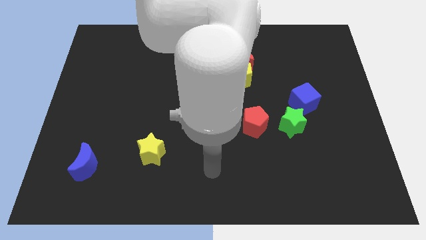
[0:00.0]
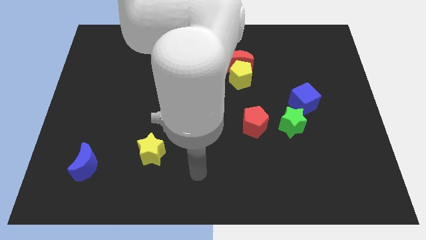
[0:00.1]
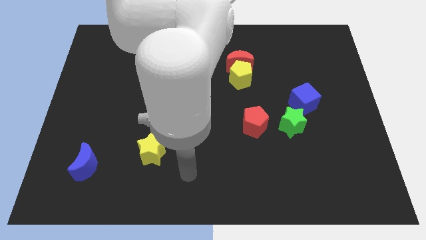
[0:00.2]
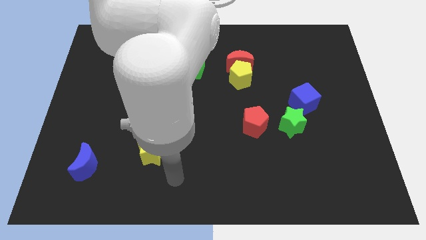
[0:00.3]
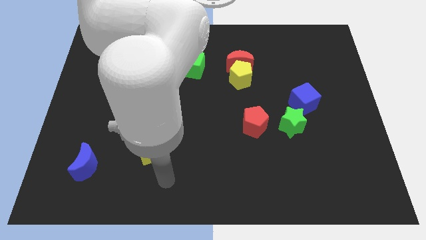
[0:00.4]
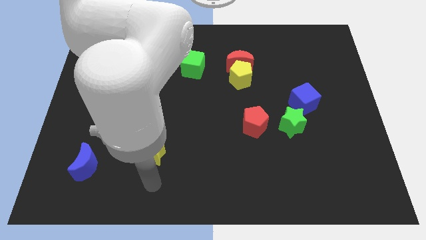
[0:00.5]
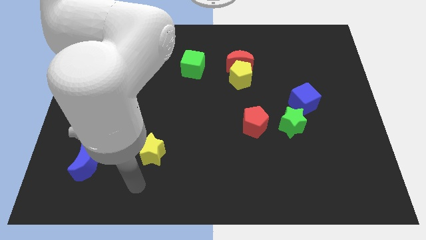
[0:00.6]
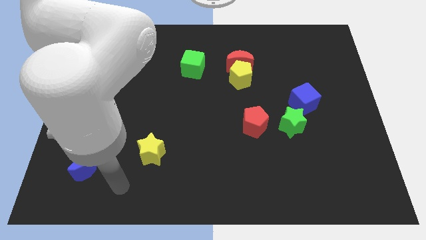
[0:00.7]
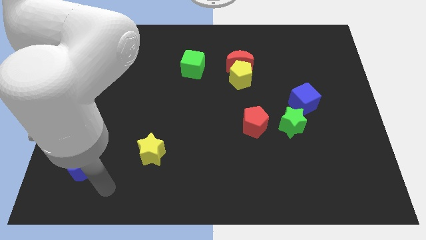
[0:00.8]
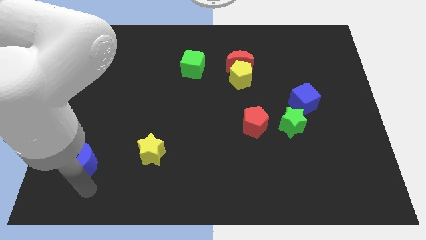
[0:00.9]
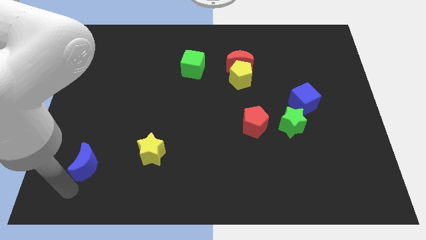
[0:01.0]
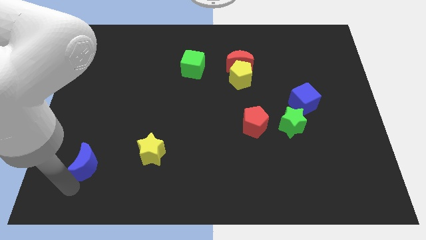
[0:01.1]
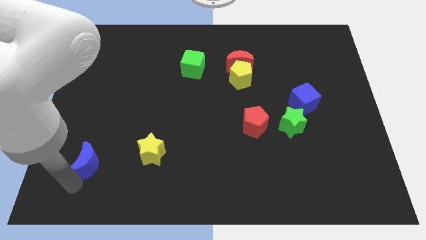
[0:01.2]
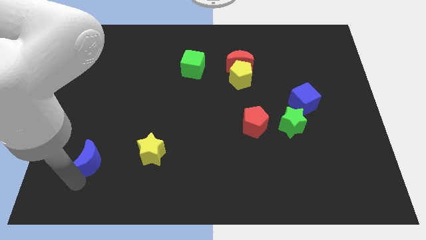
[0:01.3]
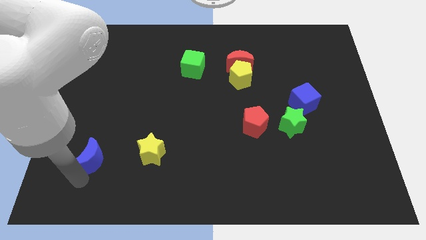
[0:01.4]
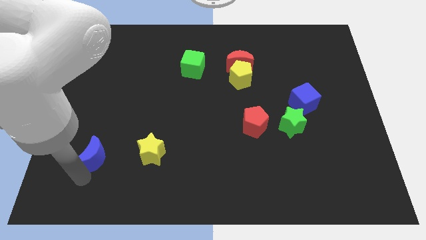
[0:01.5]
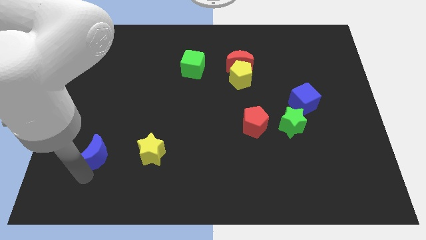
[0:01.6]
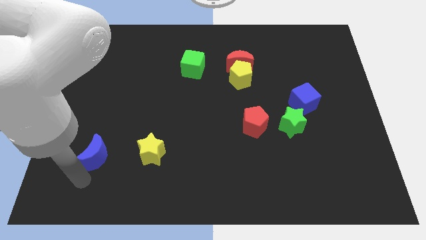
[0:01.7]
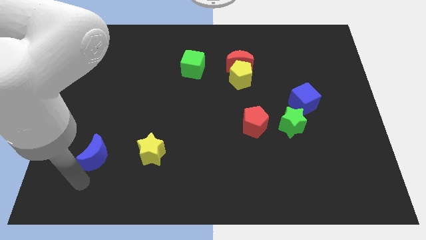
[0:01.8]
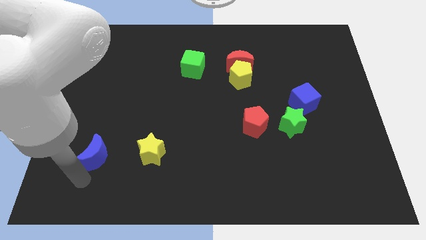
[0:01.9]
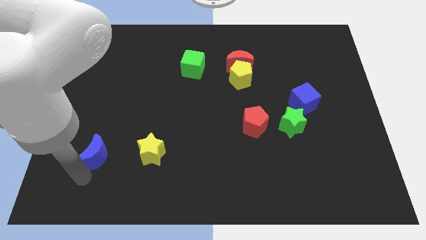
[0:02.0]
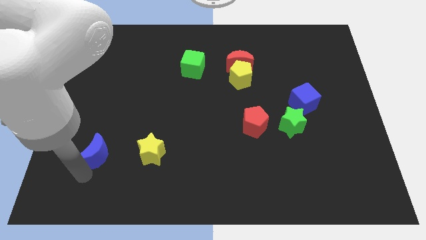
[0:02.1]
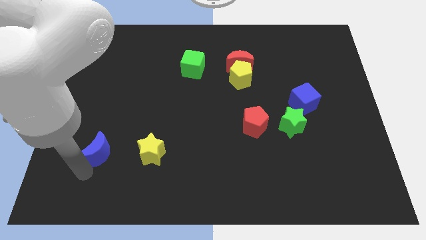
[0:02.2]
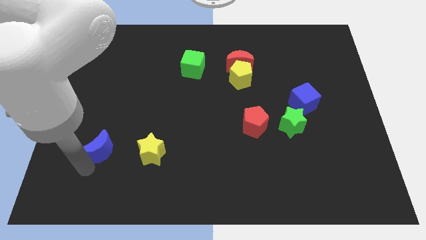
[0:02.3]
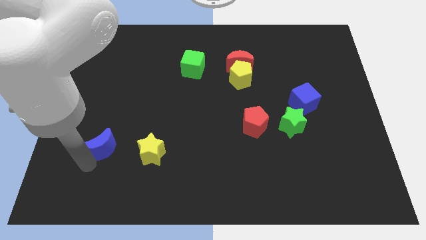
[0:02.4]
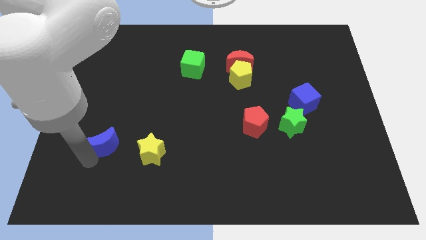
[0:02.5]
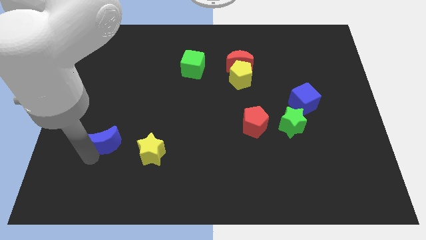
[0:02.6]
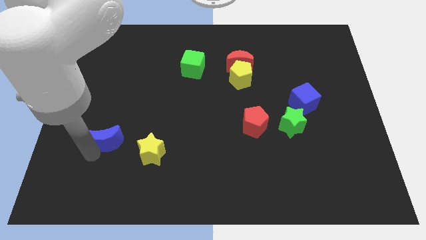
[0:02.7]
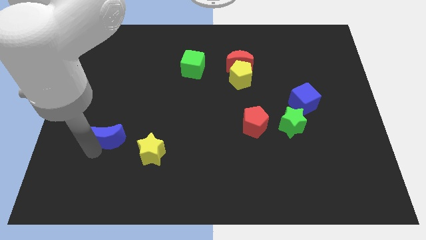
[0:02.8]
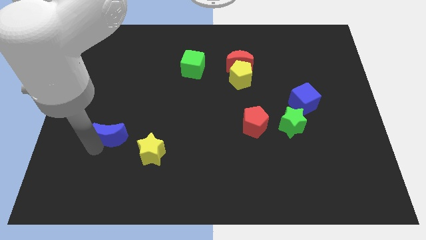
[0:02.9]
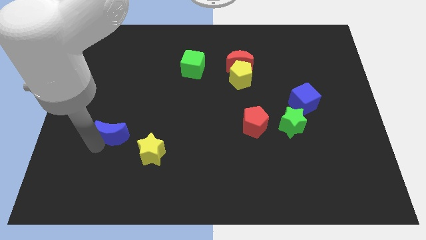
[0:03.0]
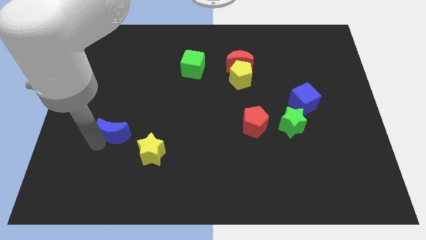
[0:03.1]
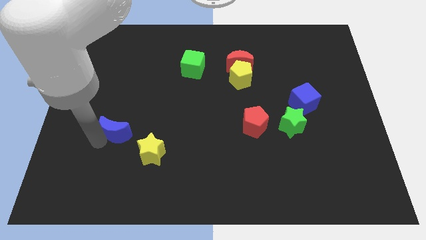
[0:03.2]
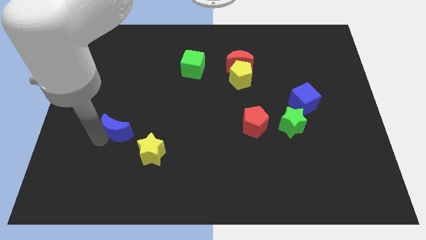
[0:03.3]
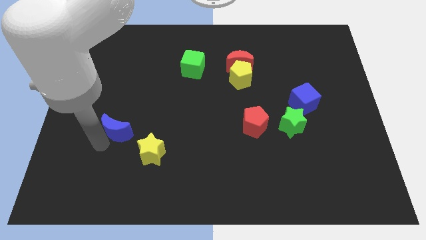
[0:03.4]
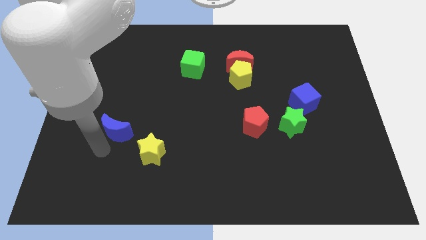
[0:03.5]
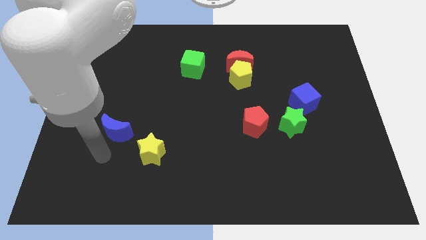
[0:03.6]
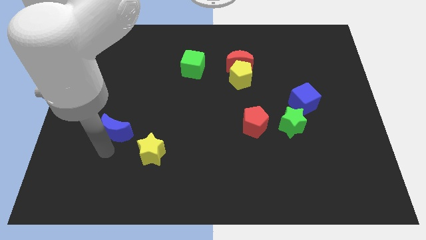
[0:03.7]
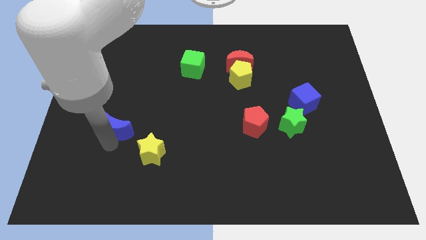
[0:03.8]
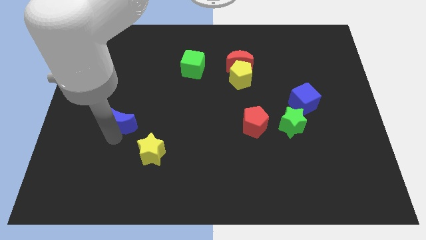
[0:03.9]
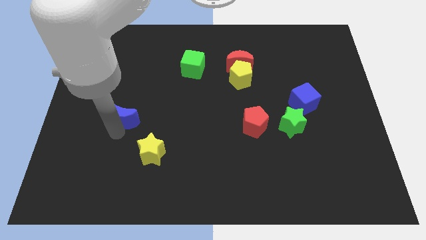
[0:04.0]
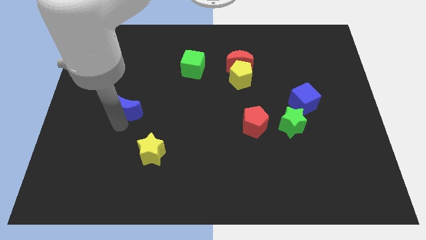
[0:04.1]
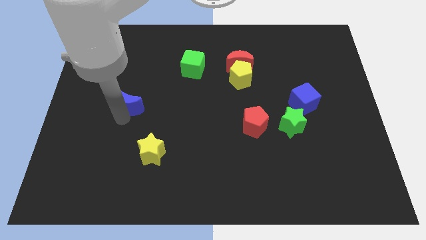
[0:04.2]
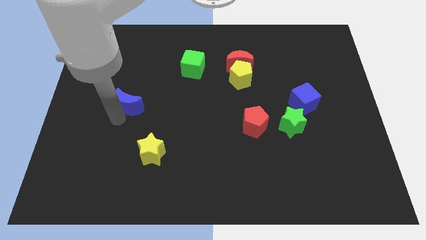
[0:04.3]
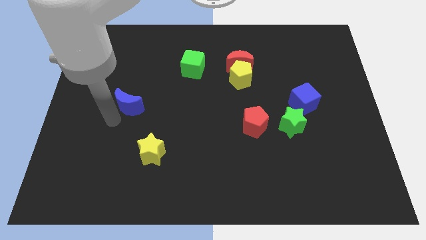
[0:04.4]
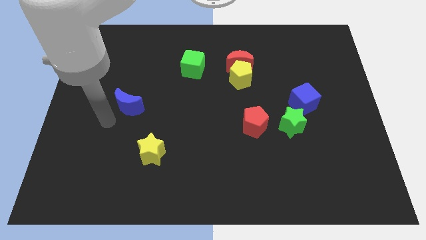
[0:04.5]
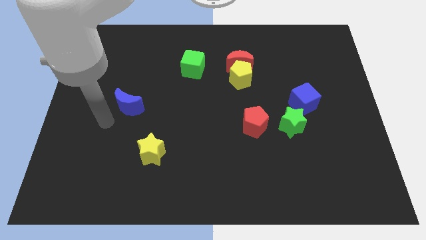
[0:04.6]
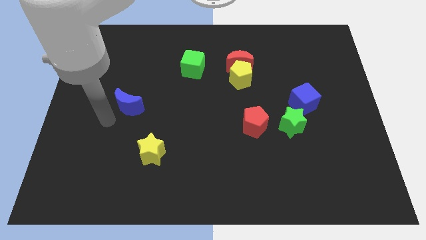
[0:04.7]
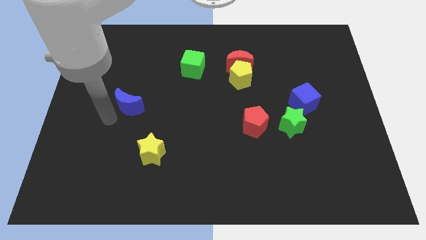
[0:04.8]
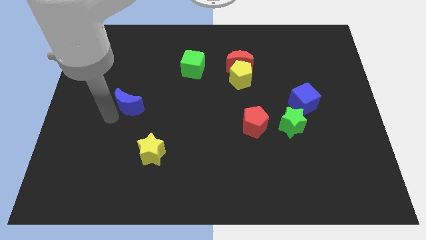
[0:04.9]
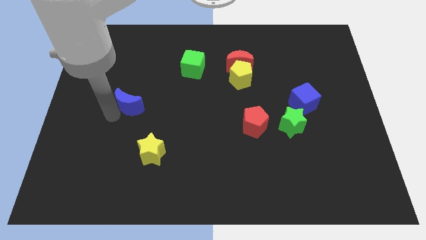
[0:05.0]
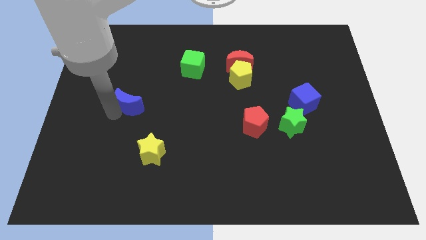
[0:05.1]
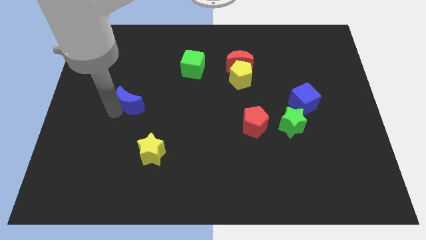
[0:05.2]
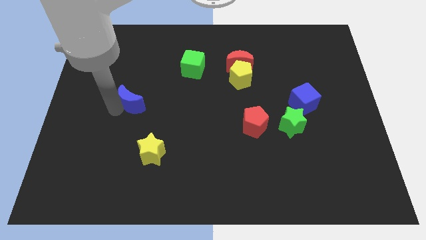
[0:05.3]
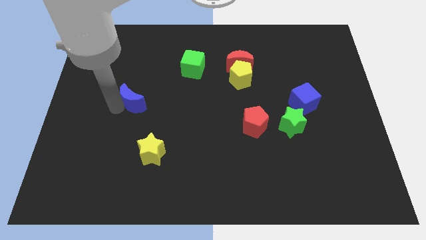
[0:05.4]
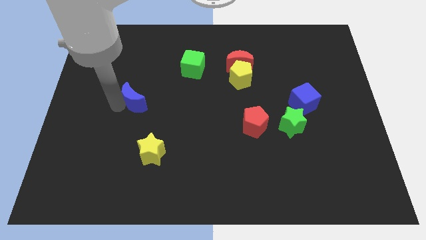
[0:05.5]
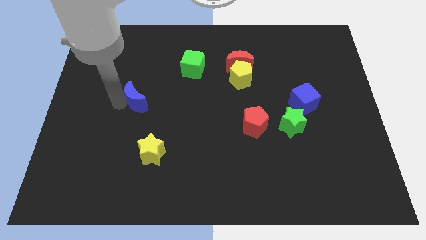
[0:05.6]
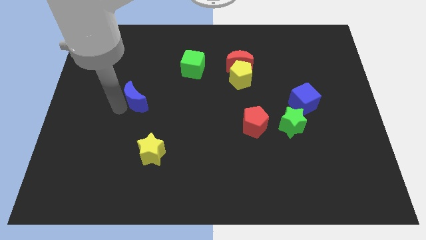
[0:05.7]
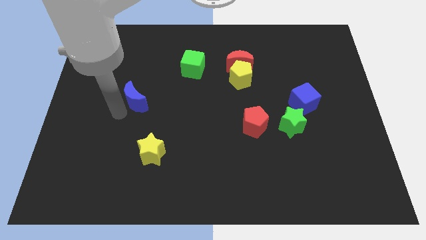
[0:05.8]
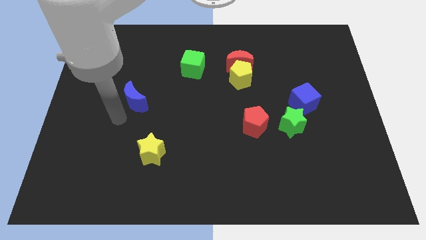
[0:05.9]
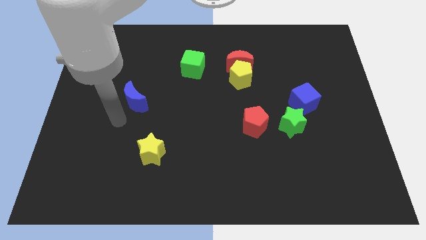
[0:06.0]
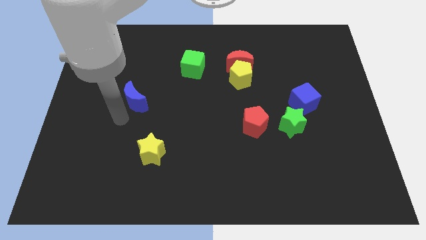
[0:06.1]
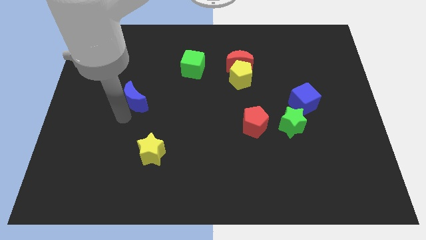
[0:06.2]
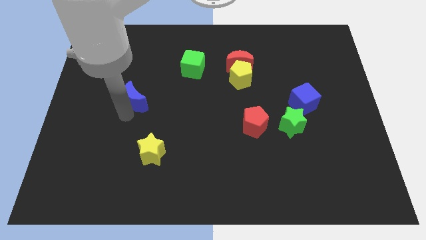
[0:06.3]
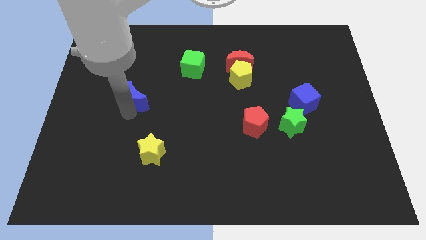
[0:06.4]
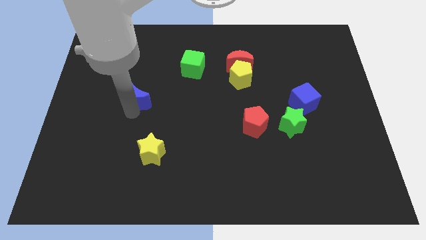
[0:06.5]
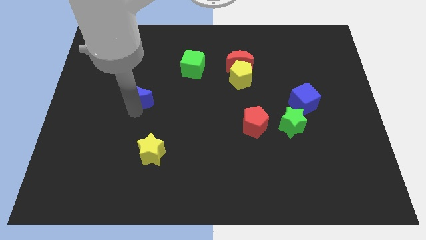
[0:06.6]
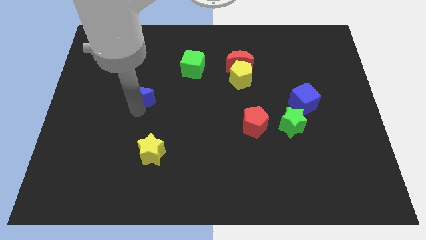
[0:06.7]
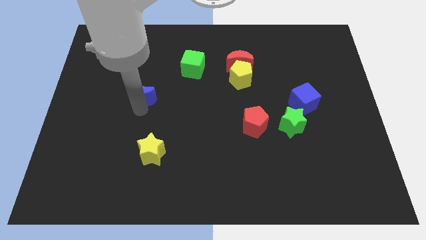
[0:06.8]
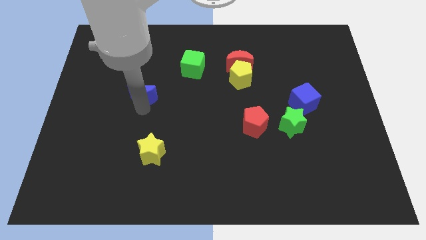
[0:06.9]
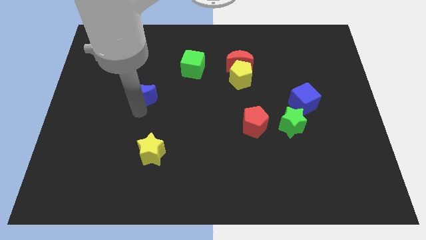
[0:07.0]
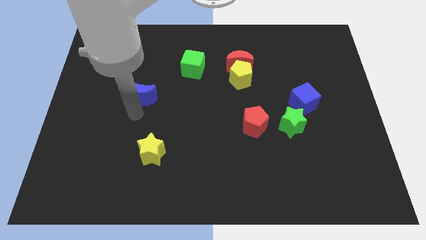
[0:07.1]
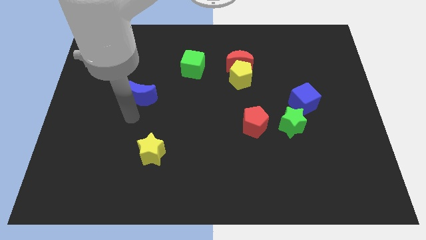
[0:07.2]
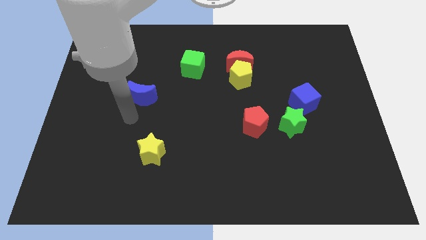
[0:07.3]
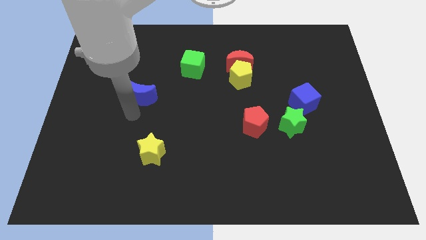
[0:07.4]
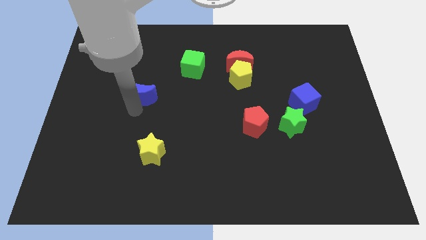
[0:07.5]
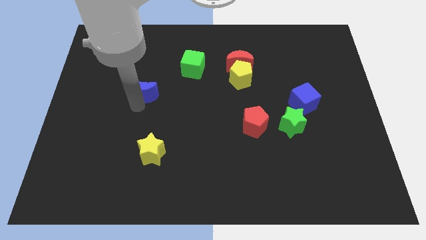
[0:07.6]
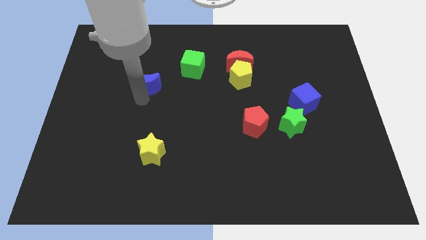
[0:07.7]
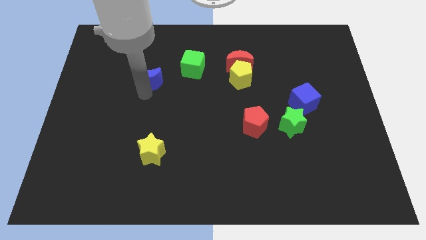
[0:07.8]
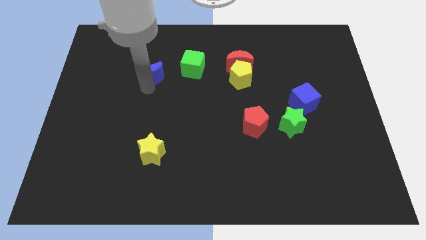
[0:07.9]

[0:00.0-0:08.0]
push the blue moon left of the green cube
